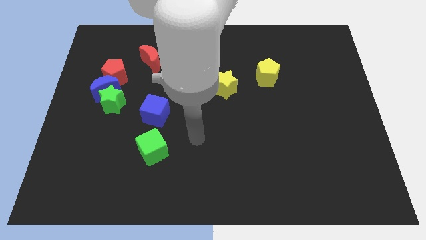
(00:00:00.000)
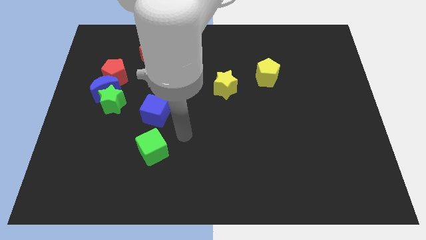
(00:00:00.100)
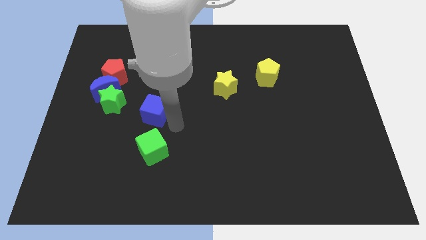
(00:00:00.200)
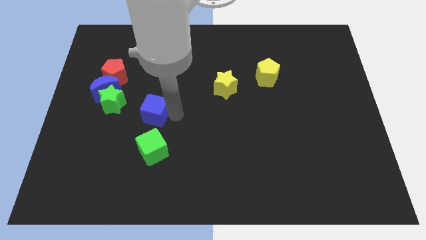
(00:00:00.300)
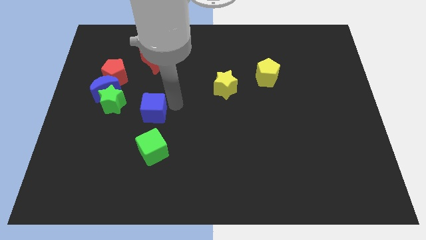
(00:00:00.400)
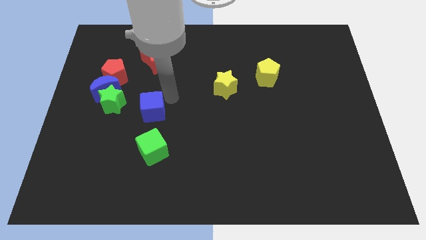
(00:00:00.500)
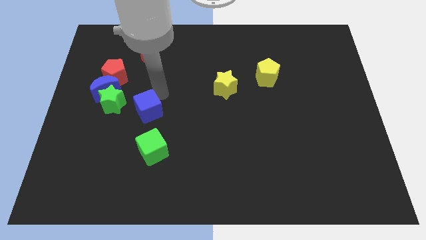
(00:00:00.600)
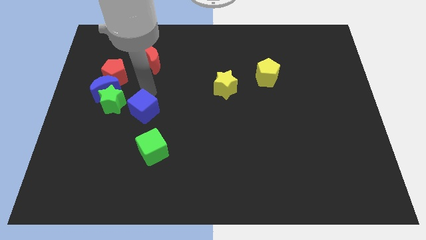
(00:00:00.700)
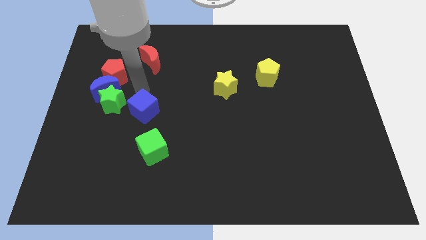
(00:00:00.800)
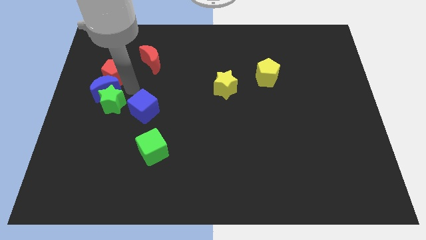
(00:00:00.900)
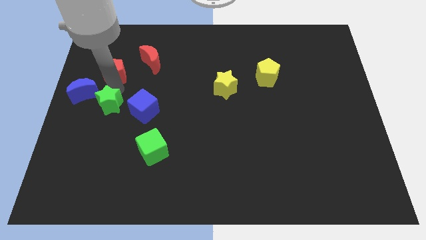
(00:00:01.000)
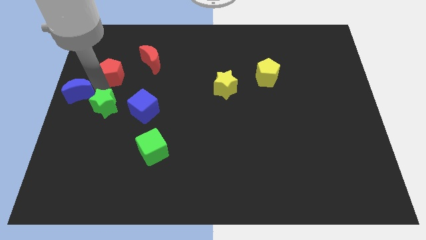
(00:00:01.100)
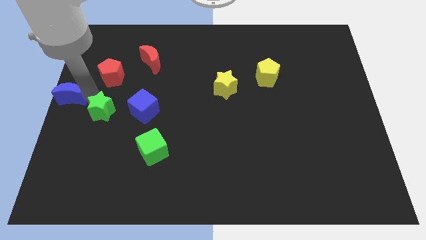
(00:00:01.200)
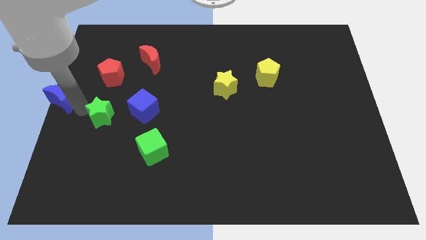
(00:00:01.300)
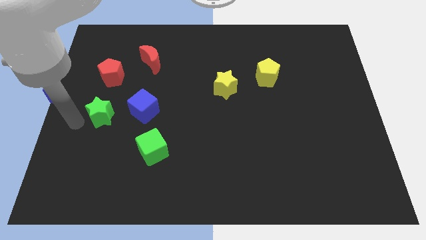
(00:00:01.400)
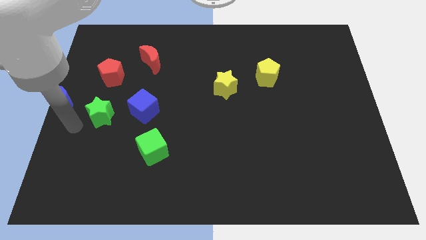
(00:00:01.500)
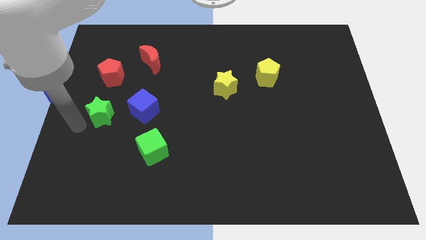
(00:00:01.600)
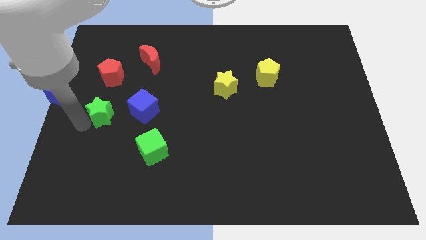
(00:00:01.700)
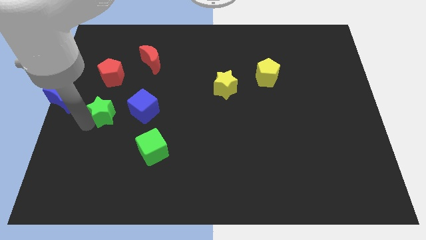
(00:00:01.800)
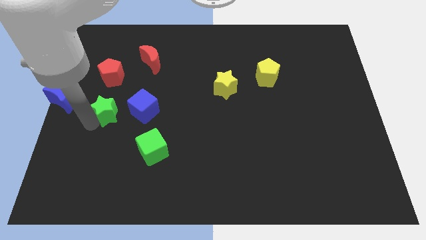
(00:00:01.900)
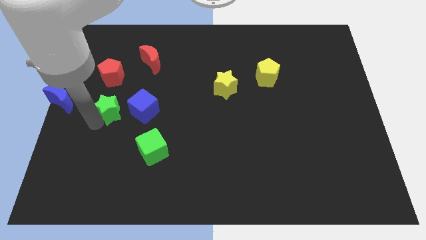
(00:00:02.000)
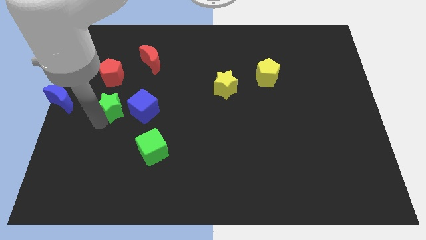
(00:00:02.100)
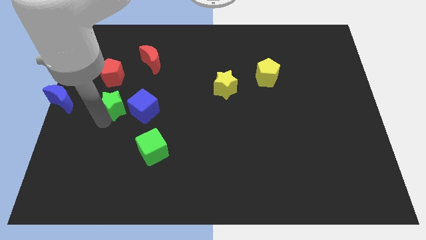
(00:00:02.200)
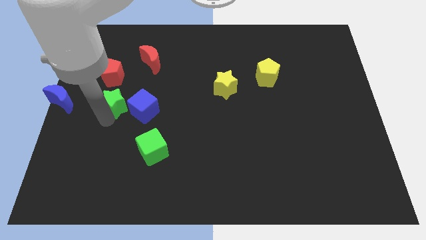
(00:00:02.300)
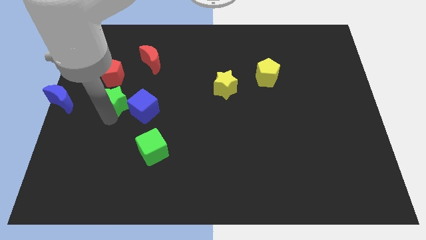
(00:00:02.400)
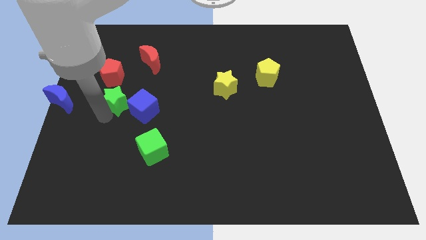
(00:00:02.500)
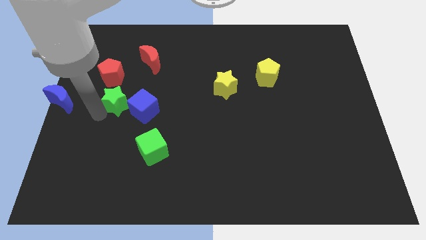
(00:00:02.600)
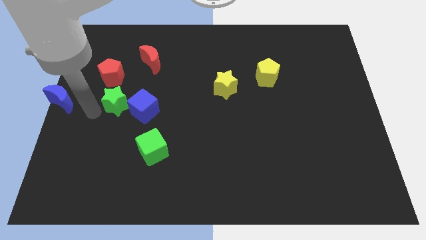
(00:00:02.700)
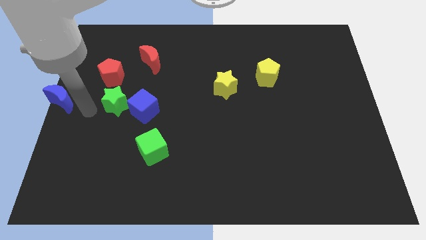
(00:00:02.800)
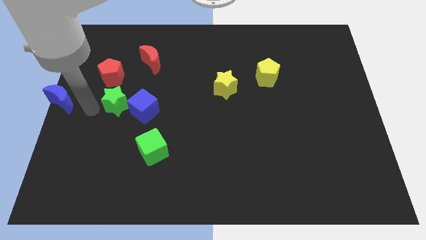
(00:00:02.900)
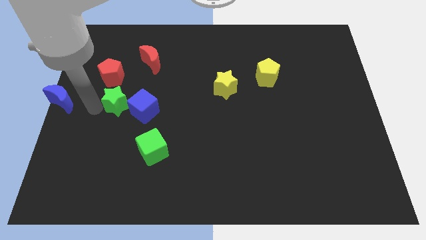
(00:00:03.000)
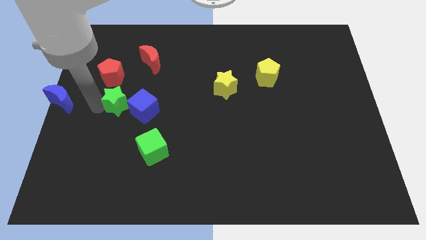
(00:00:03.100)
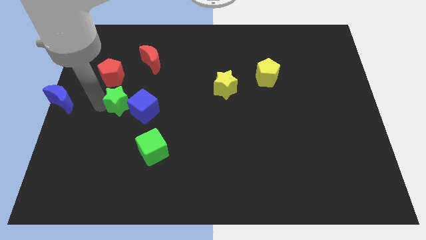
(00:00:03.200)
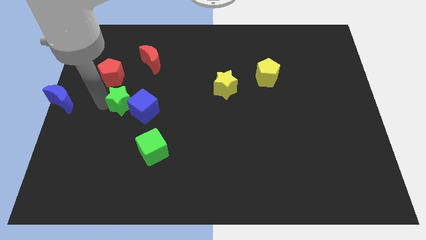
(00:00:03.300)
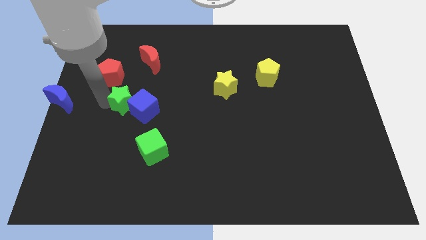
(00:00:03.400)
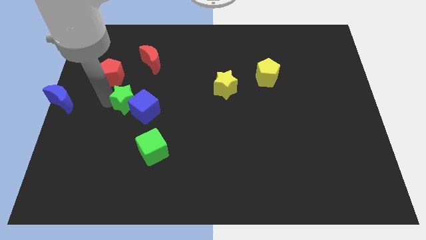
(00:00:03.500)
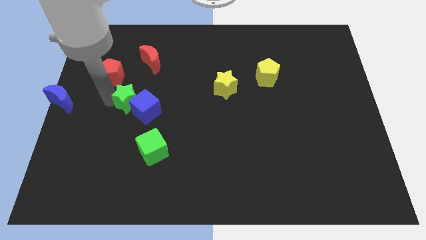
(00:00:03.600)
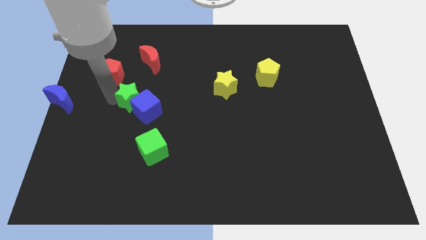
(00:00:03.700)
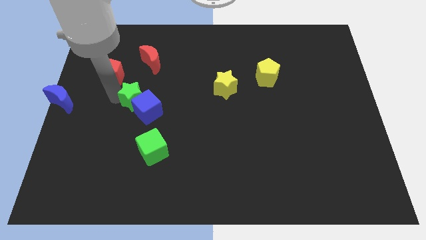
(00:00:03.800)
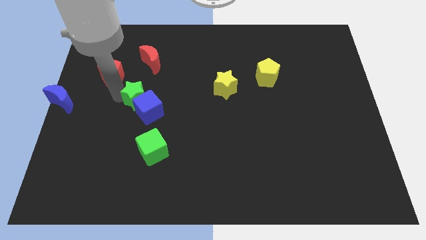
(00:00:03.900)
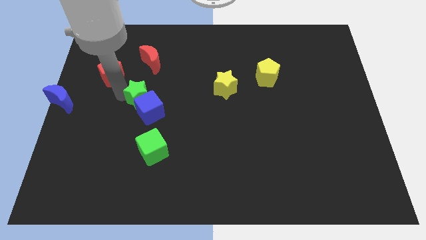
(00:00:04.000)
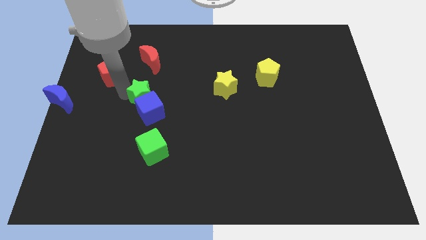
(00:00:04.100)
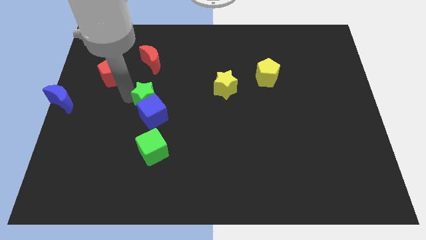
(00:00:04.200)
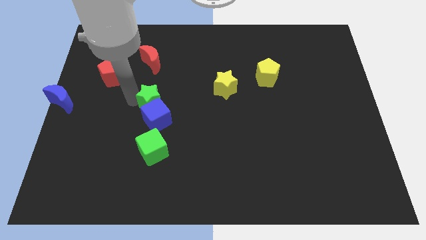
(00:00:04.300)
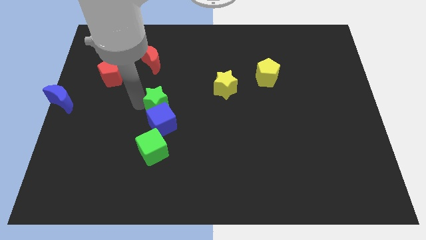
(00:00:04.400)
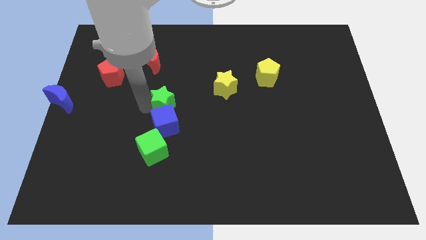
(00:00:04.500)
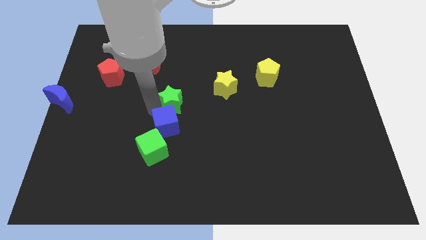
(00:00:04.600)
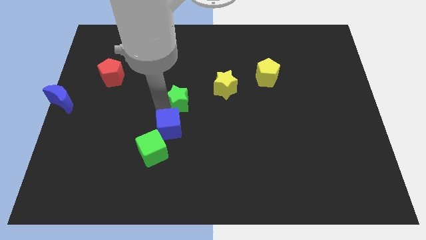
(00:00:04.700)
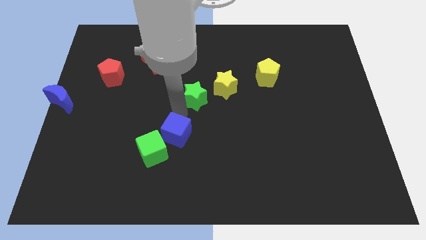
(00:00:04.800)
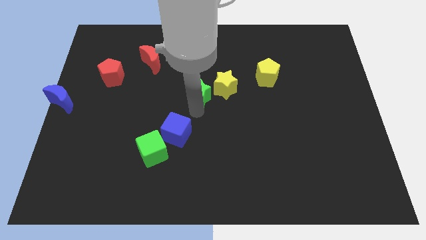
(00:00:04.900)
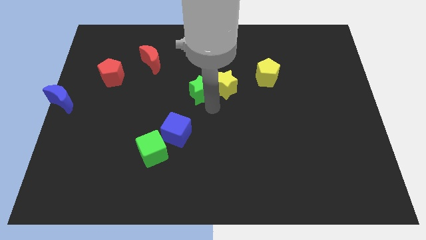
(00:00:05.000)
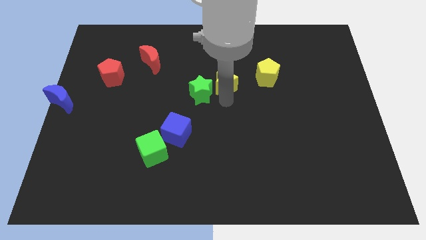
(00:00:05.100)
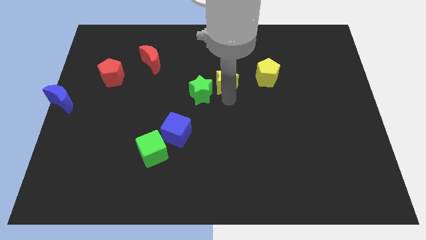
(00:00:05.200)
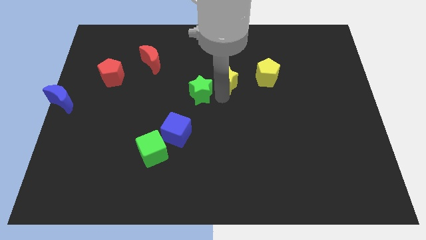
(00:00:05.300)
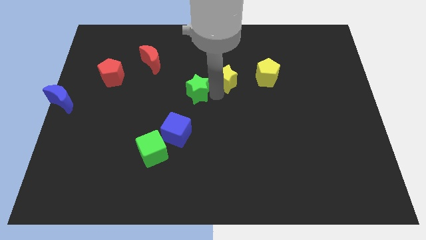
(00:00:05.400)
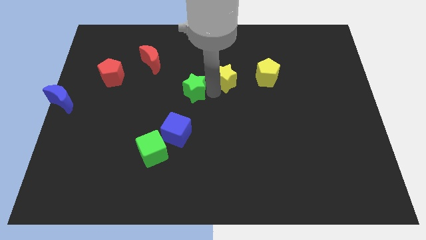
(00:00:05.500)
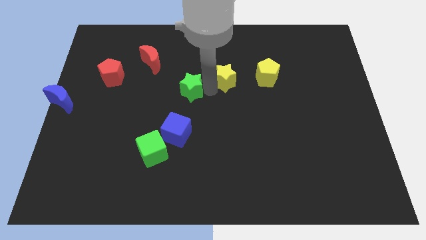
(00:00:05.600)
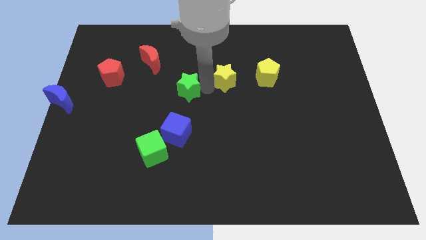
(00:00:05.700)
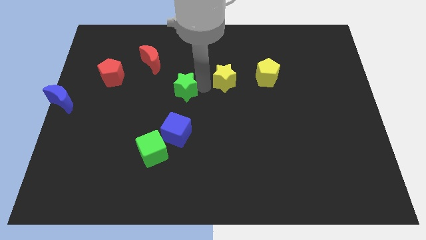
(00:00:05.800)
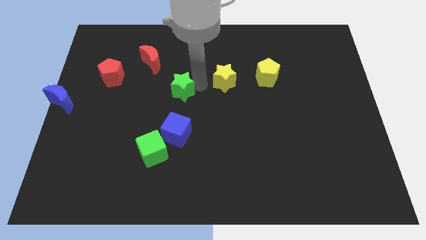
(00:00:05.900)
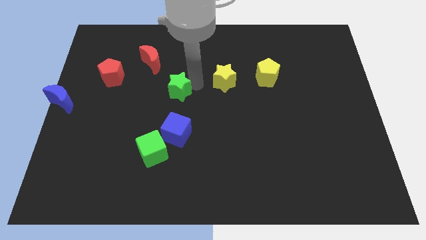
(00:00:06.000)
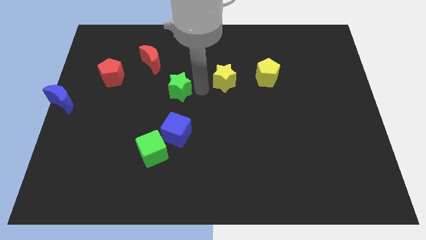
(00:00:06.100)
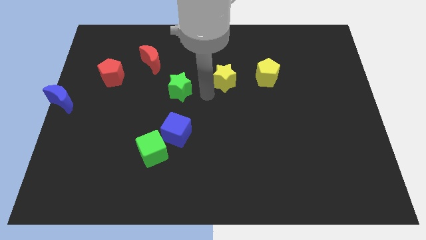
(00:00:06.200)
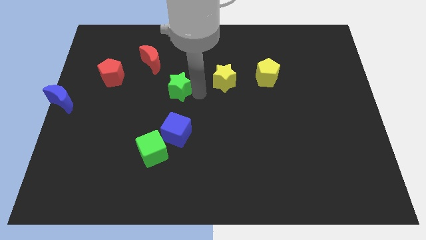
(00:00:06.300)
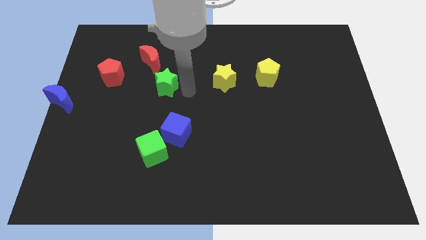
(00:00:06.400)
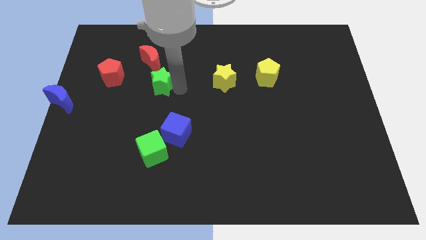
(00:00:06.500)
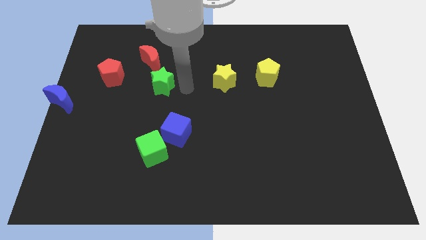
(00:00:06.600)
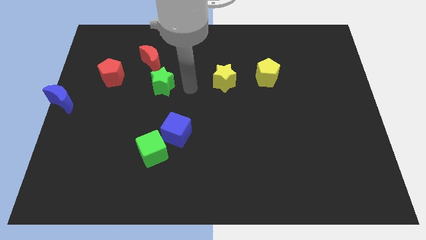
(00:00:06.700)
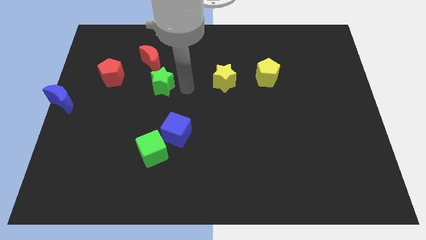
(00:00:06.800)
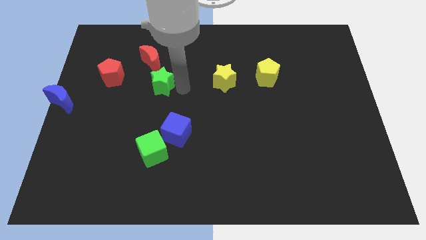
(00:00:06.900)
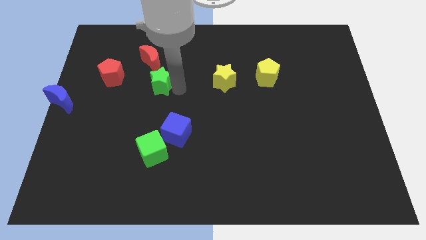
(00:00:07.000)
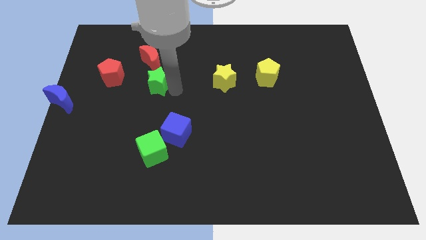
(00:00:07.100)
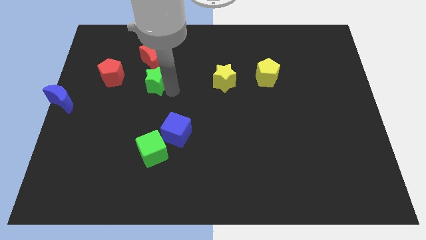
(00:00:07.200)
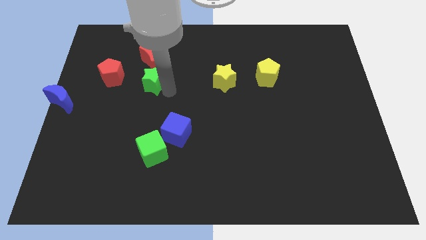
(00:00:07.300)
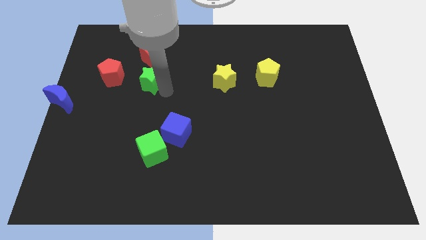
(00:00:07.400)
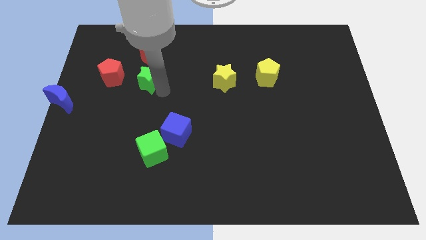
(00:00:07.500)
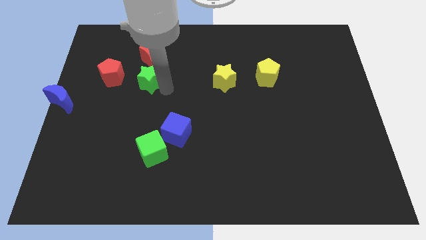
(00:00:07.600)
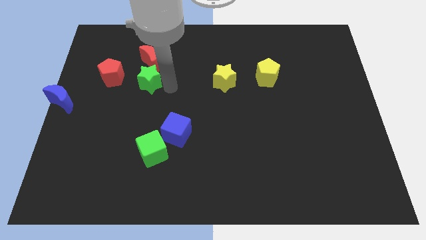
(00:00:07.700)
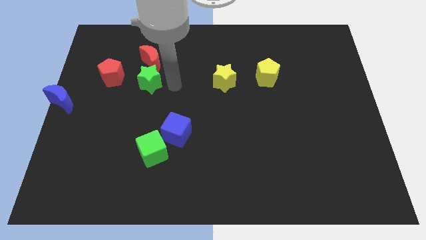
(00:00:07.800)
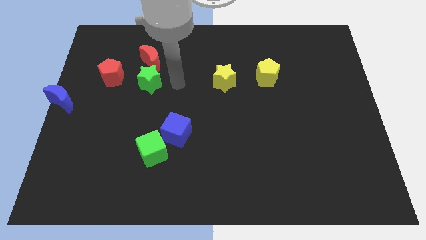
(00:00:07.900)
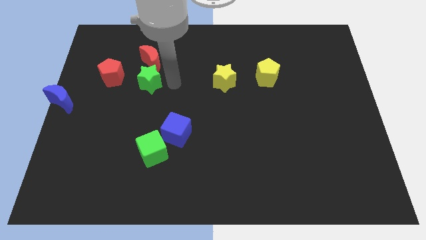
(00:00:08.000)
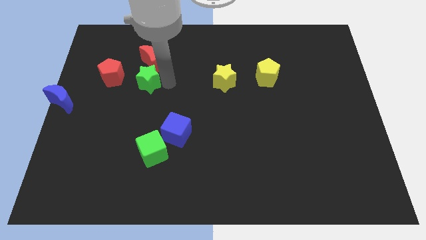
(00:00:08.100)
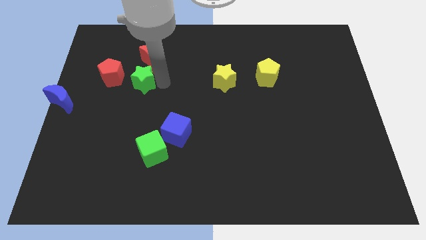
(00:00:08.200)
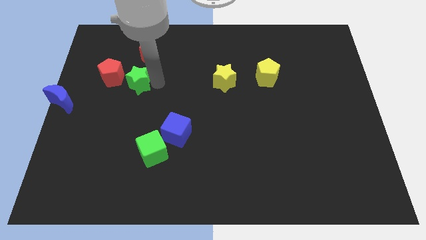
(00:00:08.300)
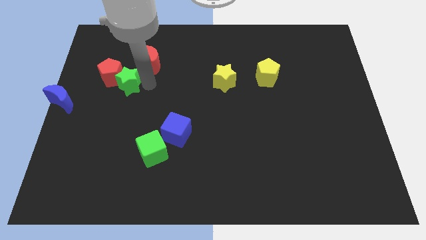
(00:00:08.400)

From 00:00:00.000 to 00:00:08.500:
move the green star close to the red pentagon
